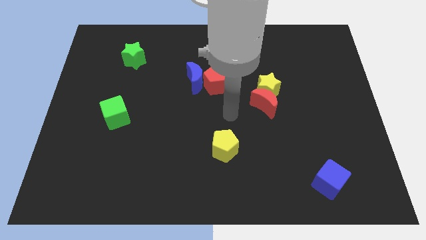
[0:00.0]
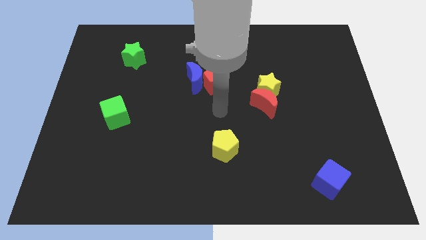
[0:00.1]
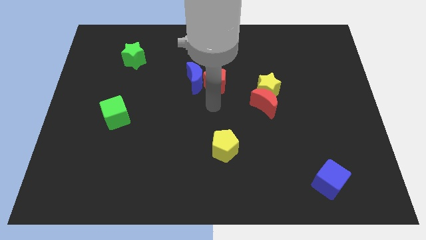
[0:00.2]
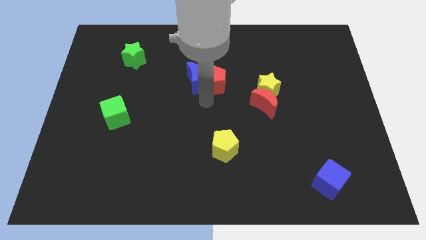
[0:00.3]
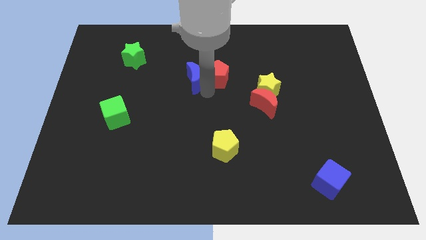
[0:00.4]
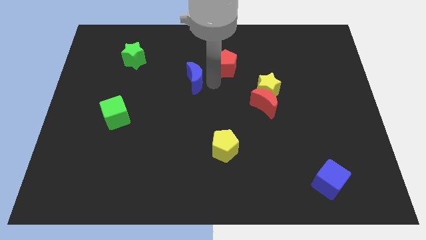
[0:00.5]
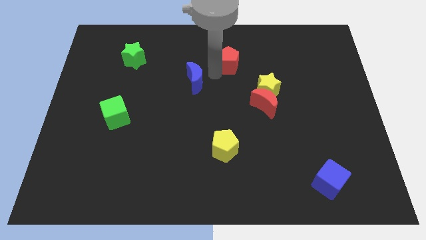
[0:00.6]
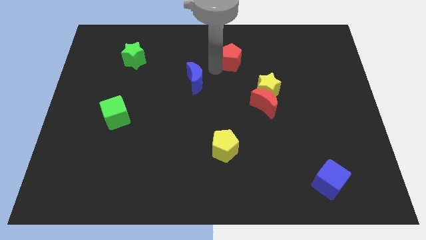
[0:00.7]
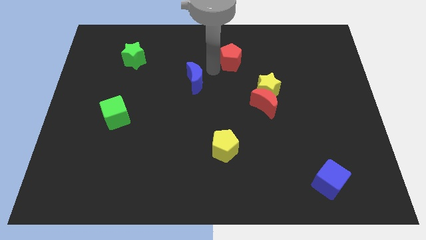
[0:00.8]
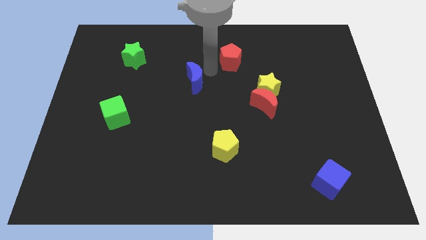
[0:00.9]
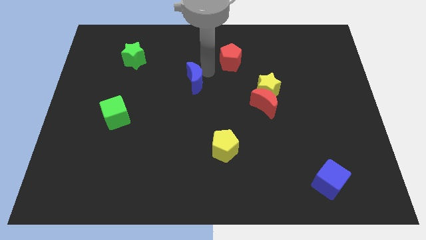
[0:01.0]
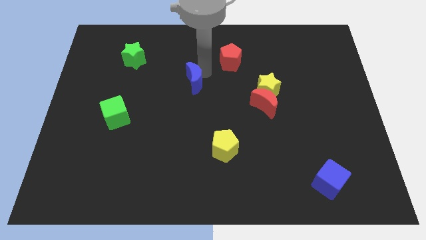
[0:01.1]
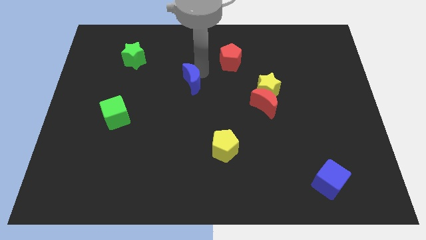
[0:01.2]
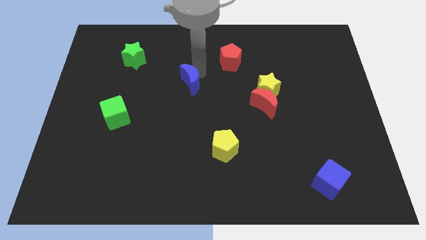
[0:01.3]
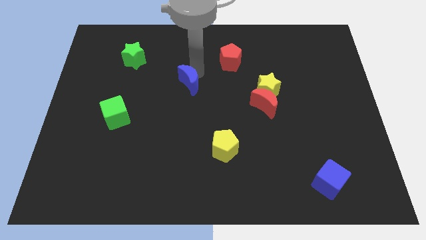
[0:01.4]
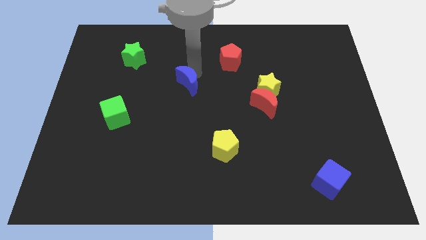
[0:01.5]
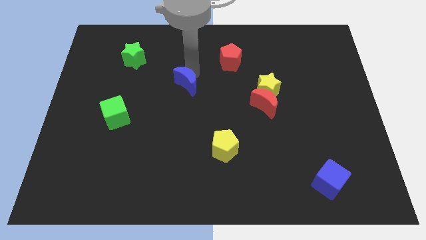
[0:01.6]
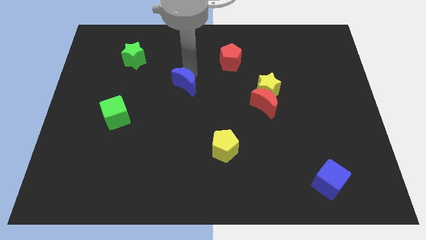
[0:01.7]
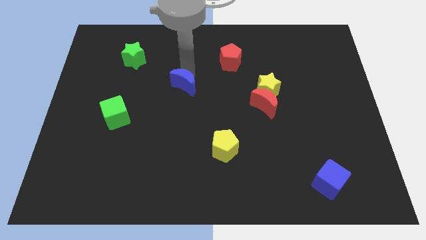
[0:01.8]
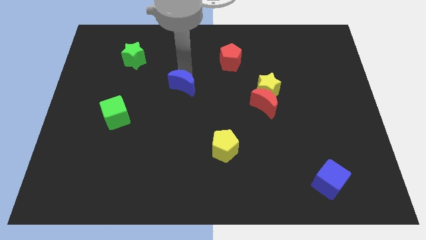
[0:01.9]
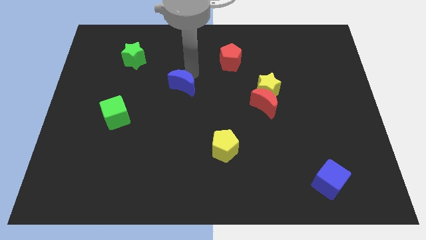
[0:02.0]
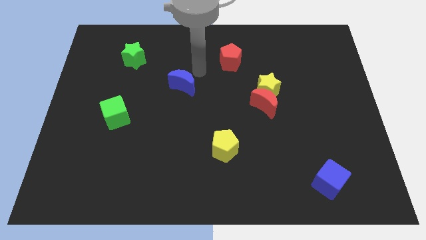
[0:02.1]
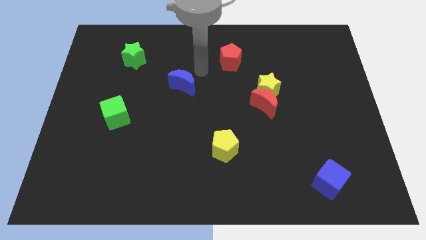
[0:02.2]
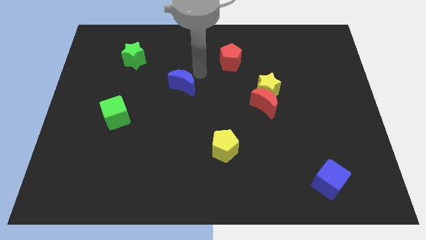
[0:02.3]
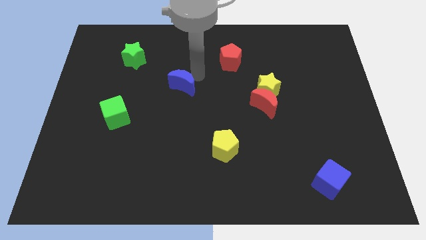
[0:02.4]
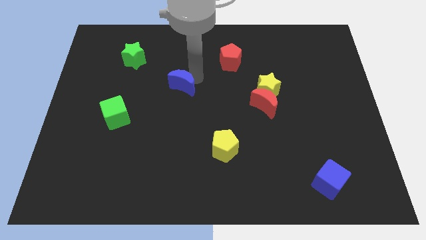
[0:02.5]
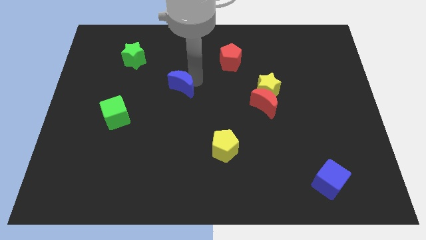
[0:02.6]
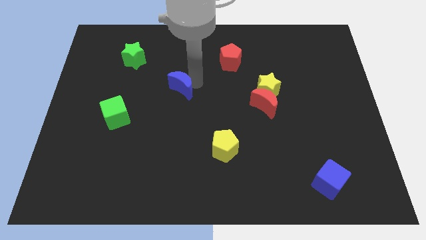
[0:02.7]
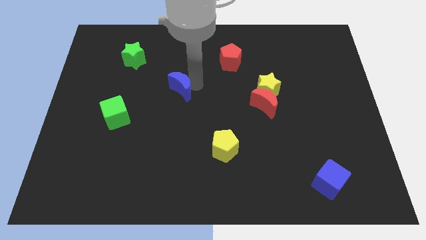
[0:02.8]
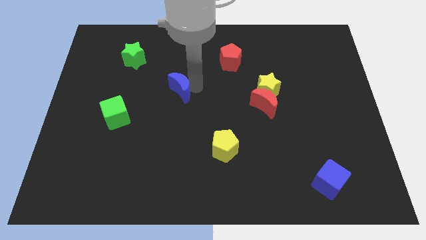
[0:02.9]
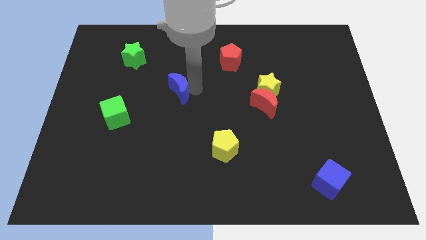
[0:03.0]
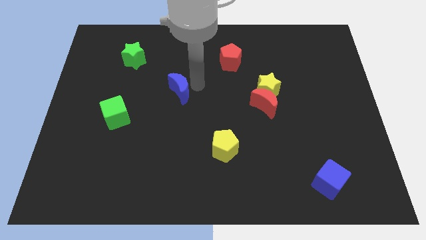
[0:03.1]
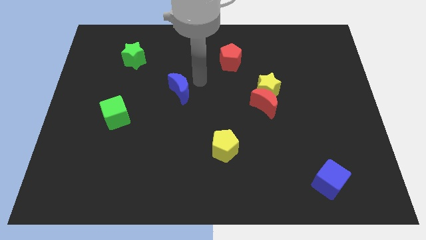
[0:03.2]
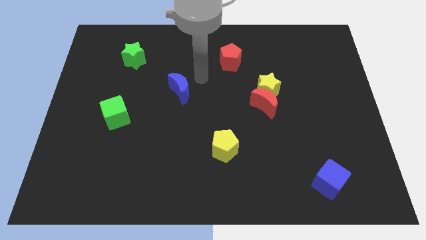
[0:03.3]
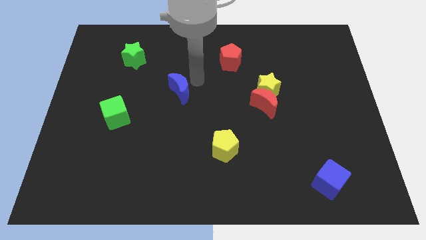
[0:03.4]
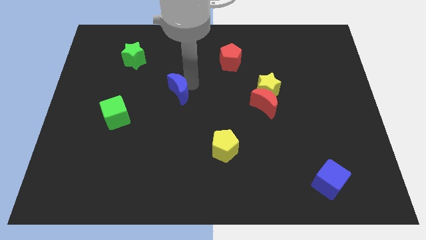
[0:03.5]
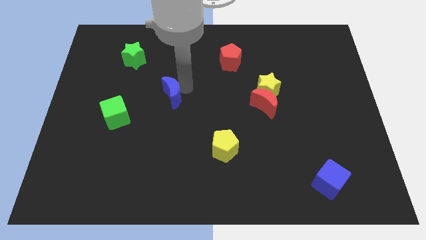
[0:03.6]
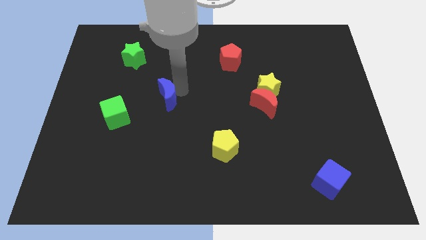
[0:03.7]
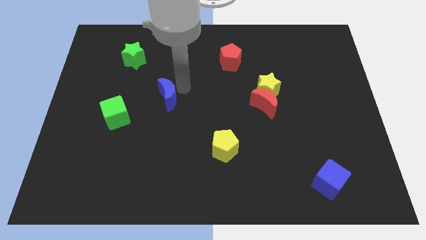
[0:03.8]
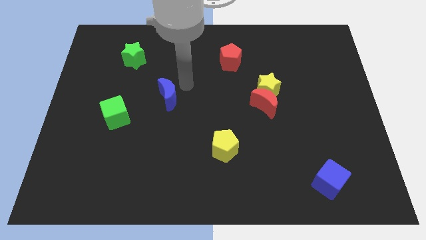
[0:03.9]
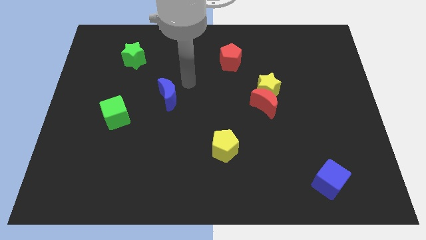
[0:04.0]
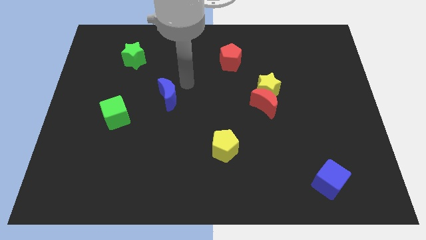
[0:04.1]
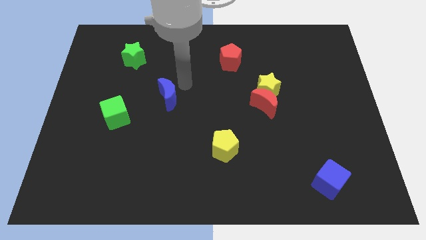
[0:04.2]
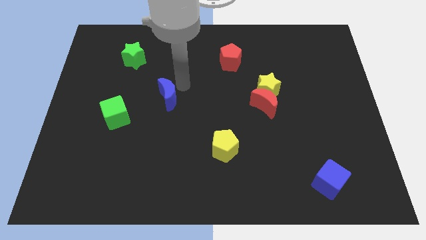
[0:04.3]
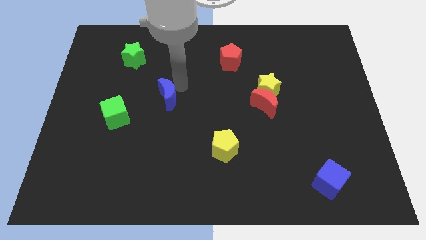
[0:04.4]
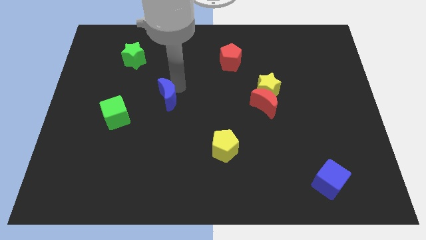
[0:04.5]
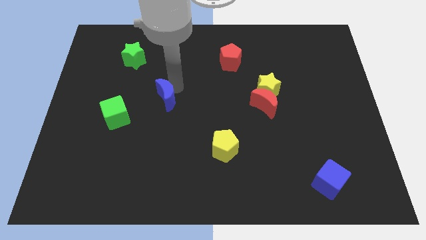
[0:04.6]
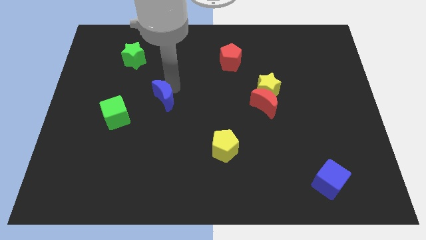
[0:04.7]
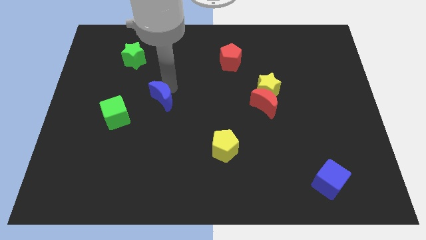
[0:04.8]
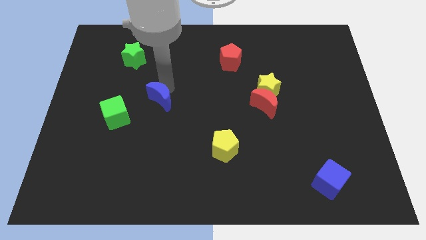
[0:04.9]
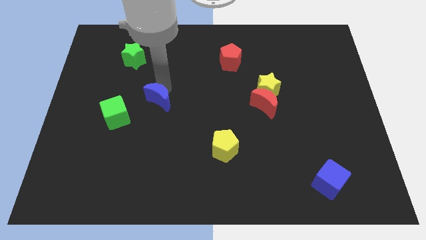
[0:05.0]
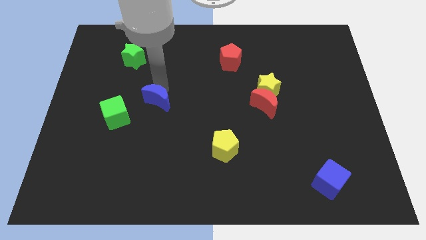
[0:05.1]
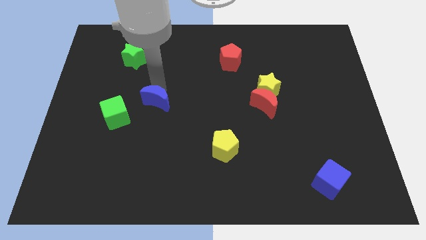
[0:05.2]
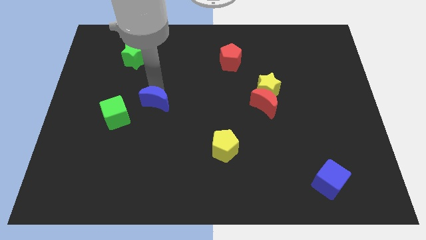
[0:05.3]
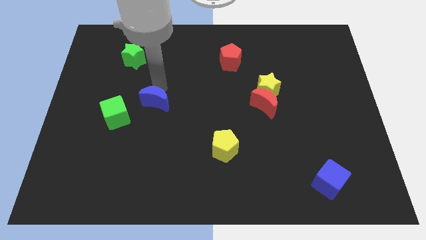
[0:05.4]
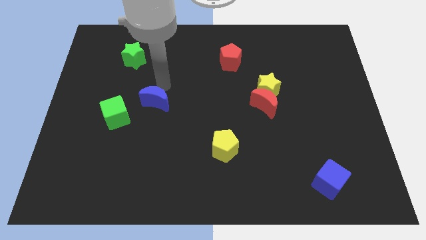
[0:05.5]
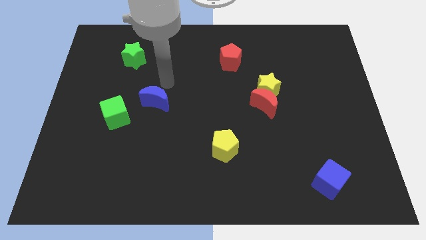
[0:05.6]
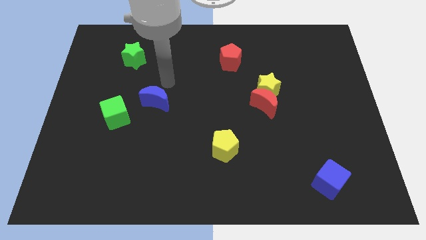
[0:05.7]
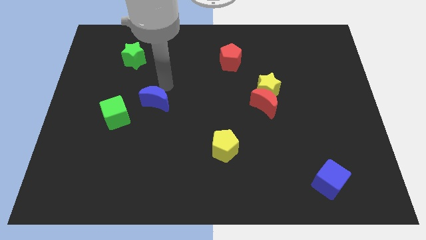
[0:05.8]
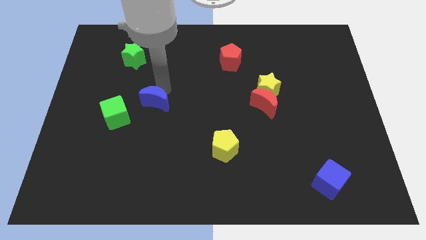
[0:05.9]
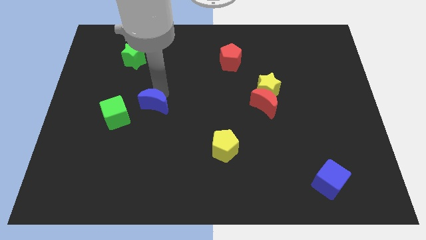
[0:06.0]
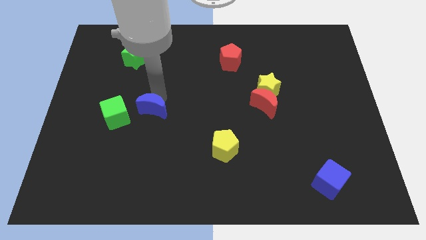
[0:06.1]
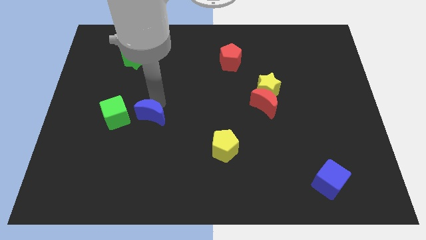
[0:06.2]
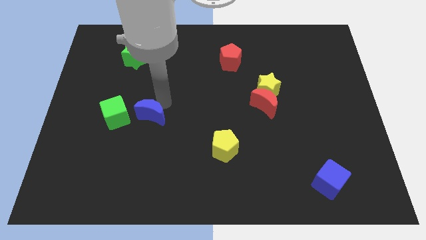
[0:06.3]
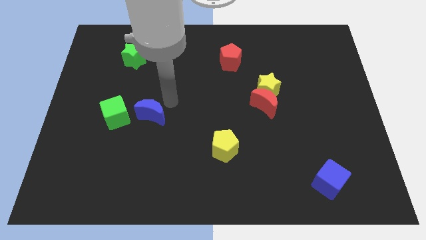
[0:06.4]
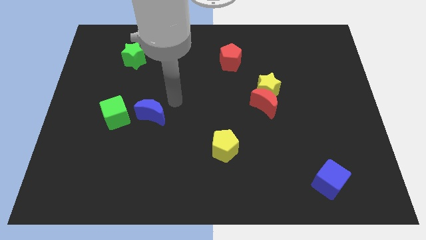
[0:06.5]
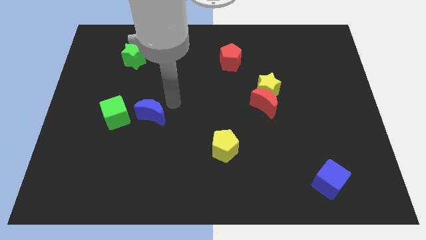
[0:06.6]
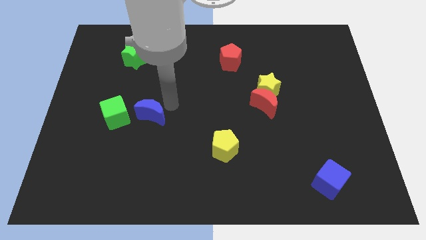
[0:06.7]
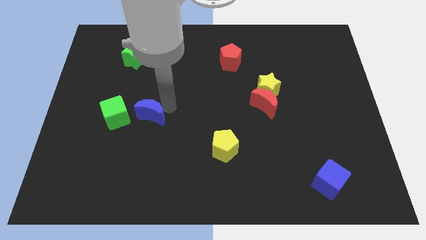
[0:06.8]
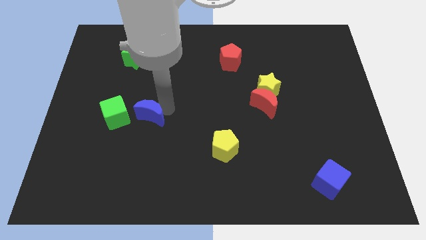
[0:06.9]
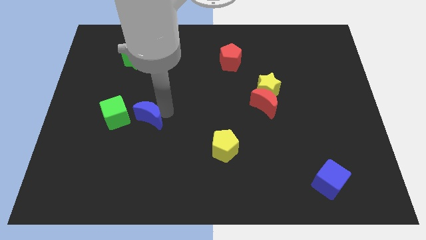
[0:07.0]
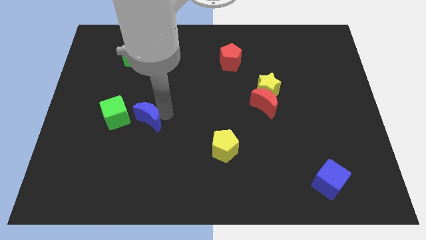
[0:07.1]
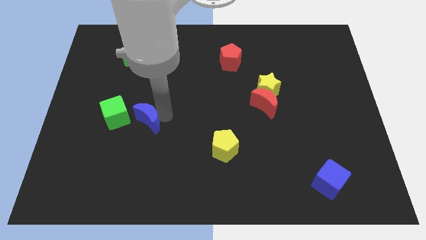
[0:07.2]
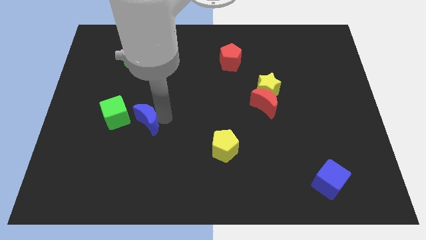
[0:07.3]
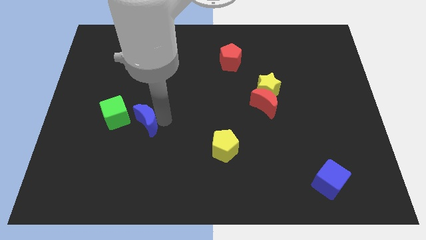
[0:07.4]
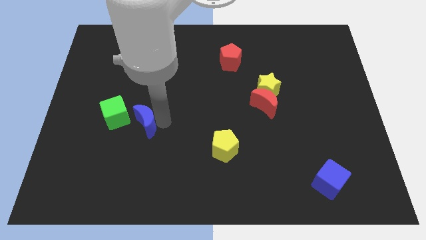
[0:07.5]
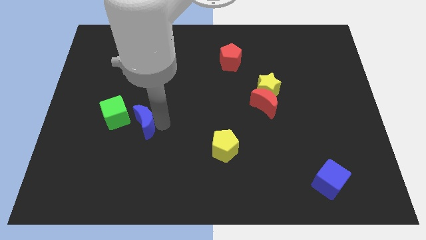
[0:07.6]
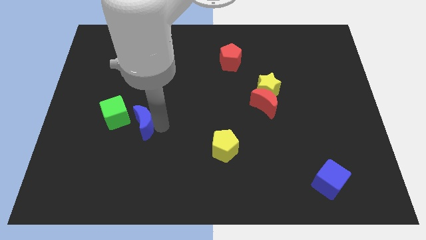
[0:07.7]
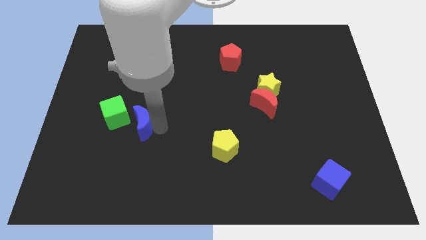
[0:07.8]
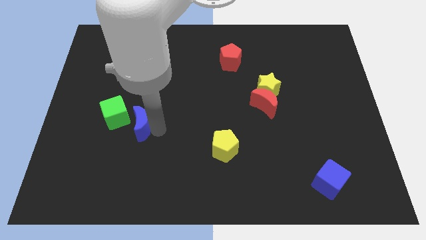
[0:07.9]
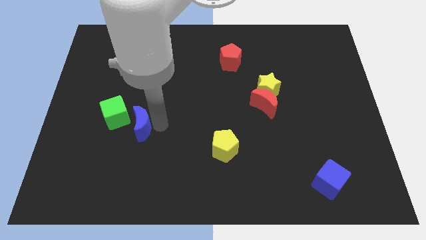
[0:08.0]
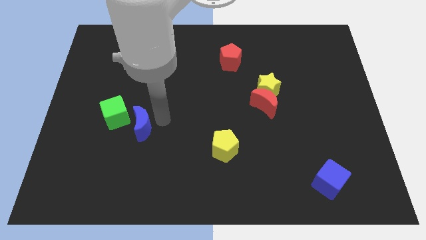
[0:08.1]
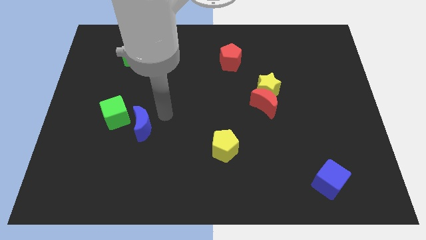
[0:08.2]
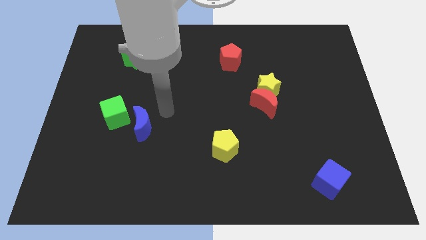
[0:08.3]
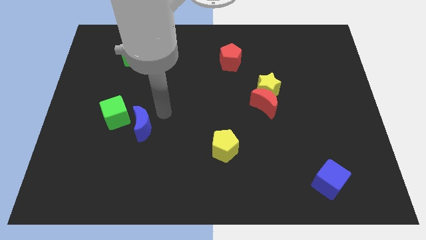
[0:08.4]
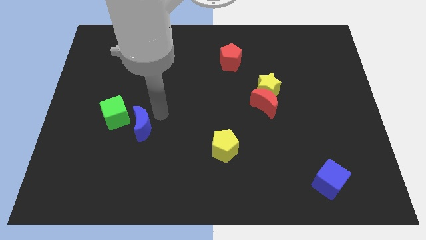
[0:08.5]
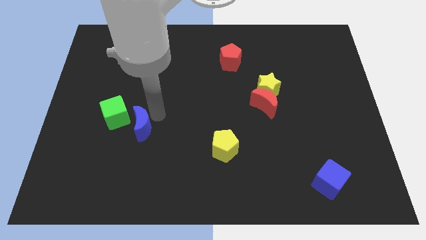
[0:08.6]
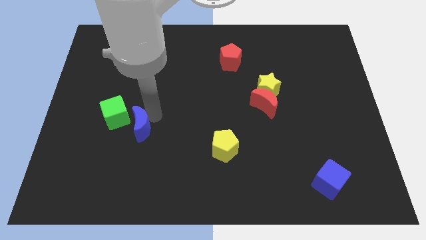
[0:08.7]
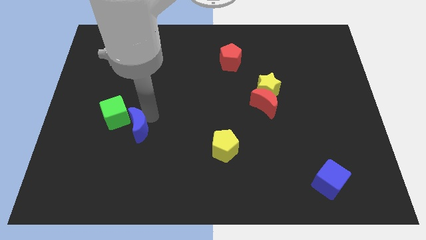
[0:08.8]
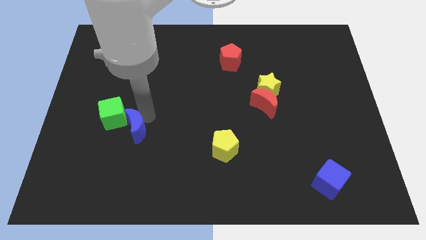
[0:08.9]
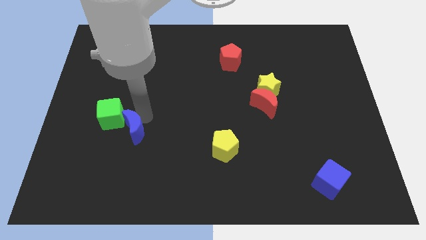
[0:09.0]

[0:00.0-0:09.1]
slide the blue moon down and left
